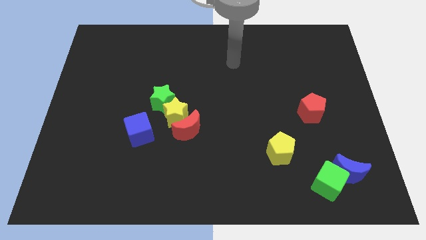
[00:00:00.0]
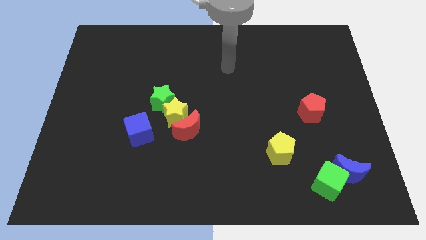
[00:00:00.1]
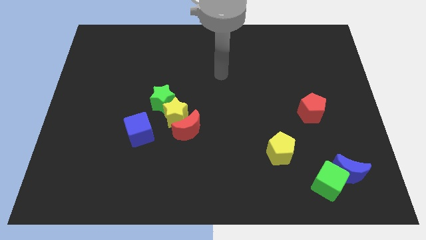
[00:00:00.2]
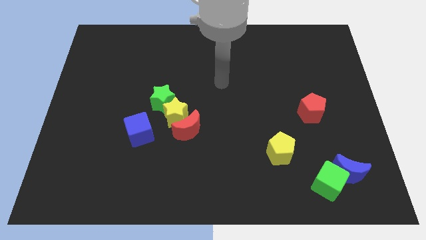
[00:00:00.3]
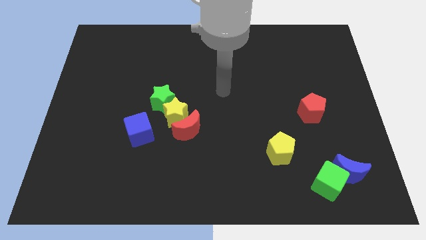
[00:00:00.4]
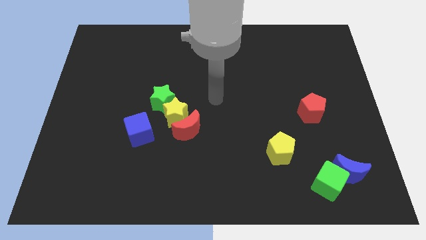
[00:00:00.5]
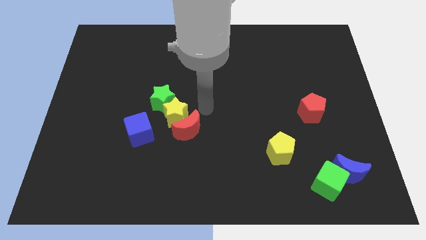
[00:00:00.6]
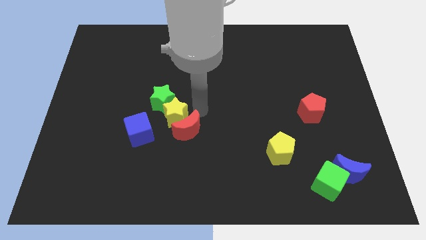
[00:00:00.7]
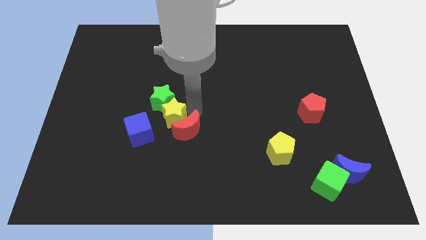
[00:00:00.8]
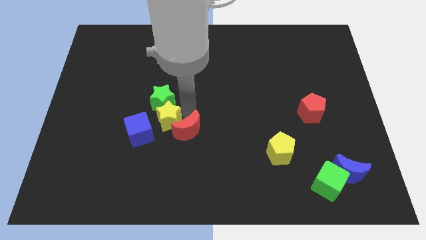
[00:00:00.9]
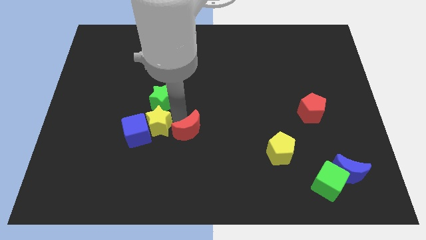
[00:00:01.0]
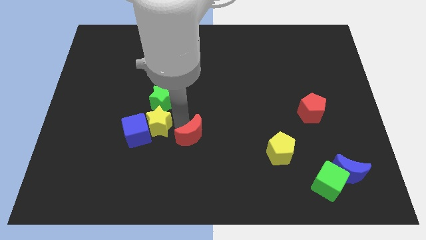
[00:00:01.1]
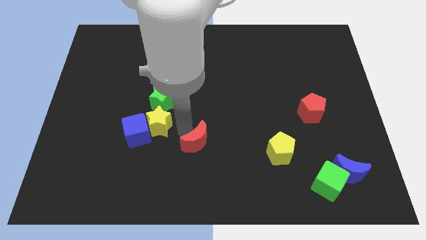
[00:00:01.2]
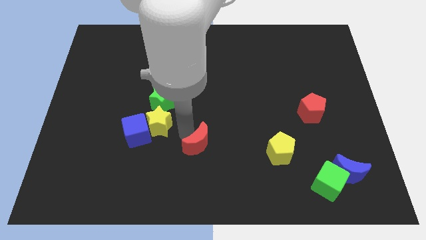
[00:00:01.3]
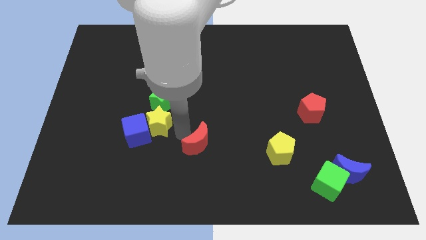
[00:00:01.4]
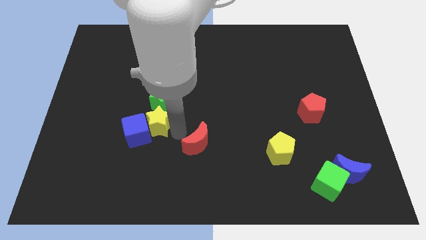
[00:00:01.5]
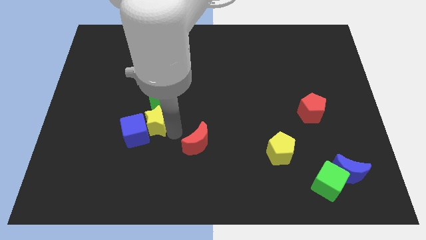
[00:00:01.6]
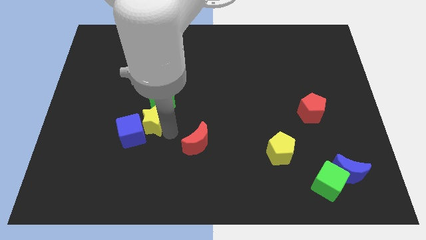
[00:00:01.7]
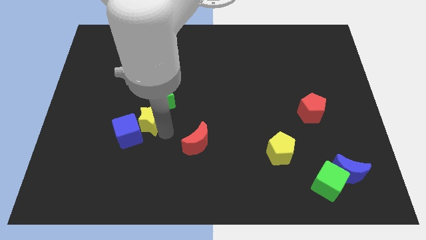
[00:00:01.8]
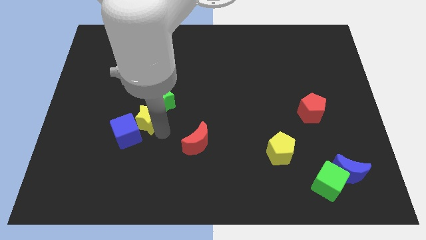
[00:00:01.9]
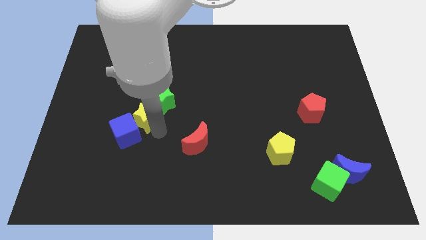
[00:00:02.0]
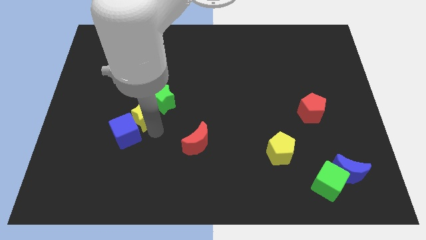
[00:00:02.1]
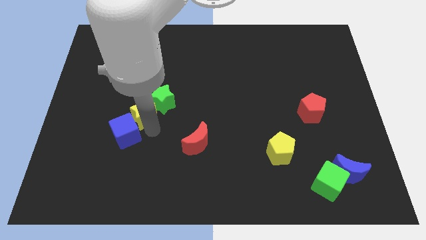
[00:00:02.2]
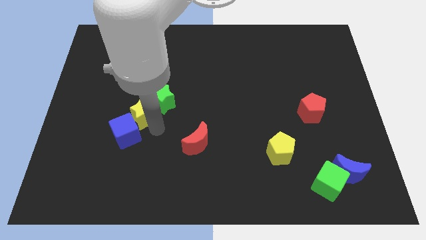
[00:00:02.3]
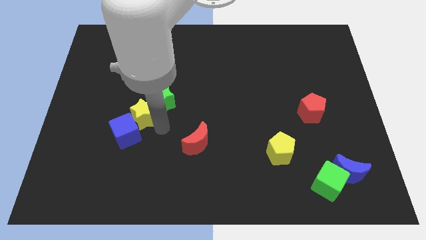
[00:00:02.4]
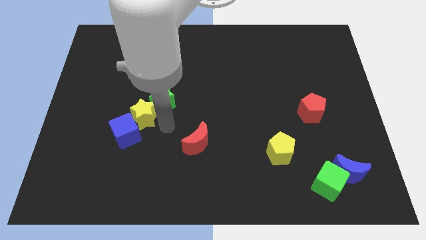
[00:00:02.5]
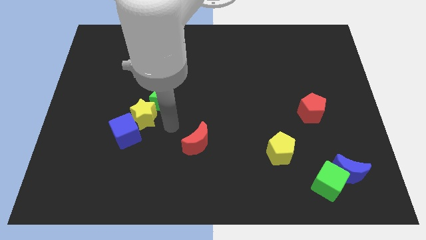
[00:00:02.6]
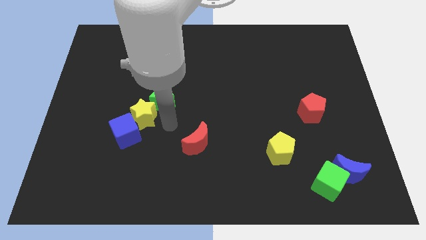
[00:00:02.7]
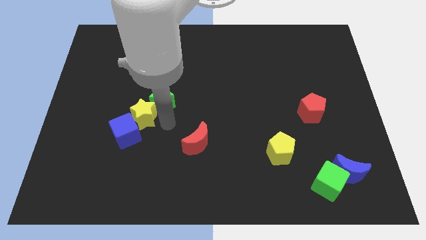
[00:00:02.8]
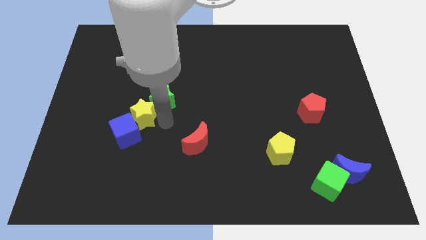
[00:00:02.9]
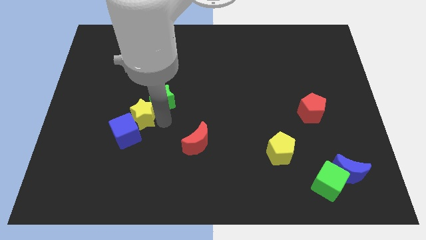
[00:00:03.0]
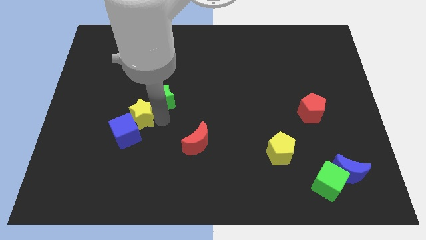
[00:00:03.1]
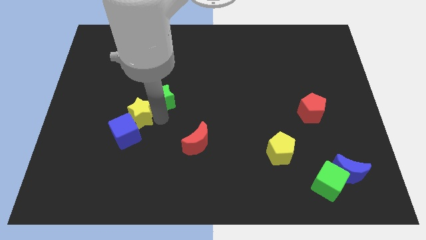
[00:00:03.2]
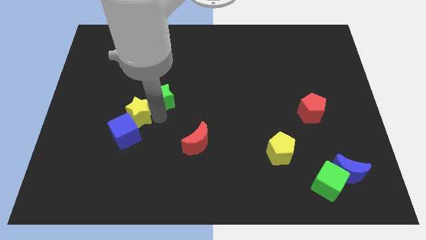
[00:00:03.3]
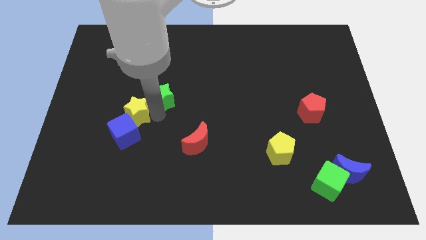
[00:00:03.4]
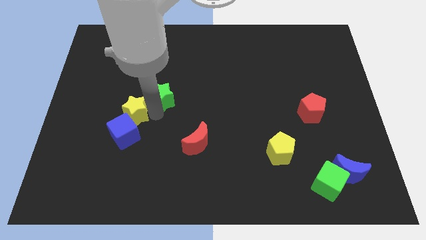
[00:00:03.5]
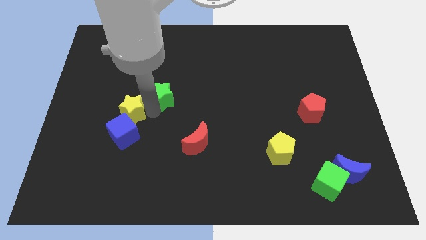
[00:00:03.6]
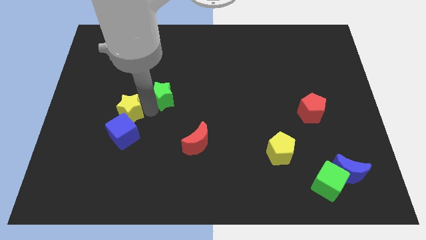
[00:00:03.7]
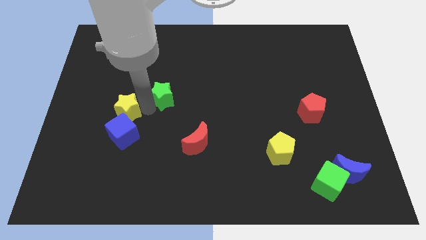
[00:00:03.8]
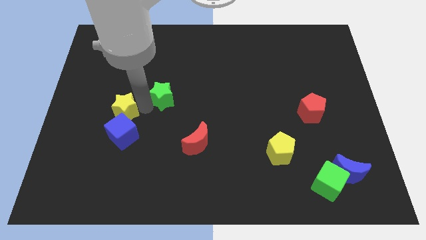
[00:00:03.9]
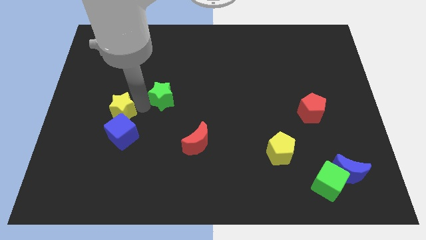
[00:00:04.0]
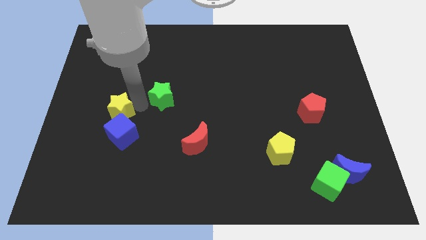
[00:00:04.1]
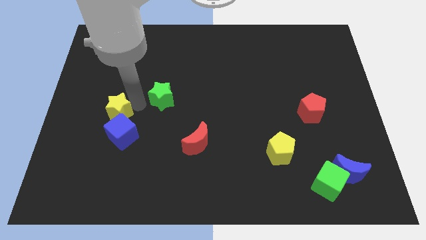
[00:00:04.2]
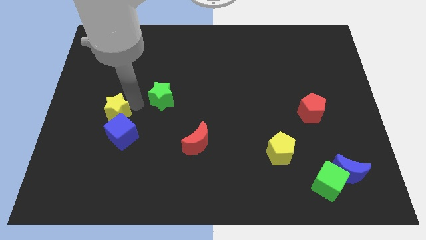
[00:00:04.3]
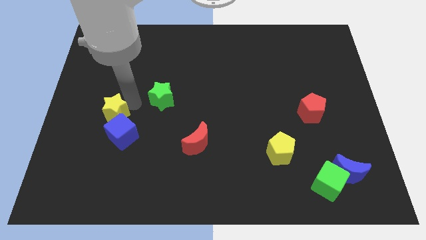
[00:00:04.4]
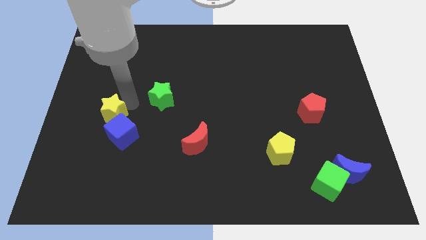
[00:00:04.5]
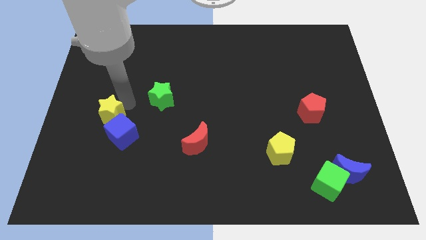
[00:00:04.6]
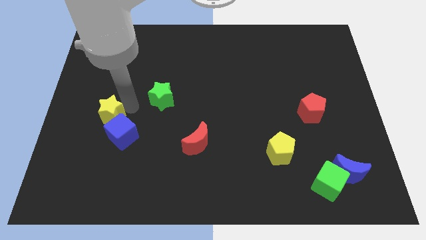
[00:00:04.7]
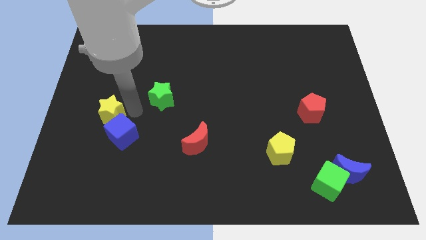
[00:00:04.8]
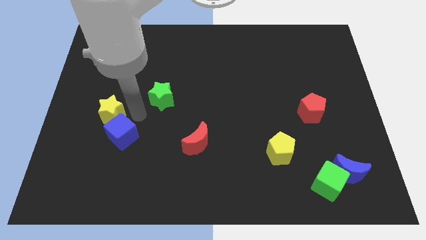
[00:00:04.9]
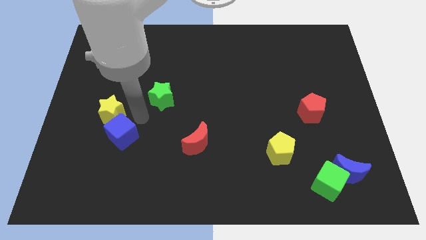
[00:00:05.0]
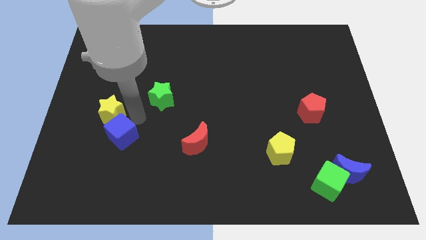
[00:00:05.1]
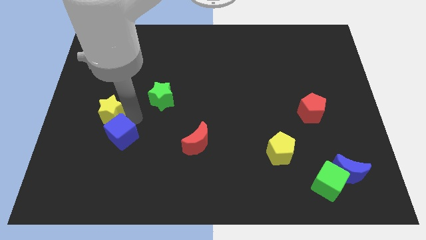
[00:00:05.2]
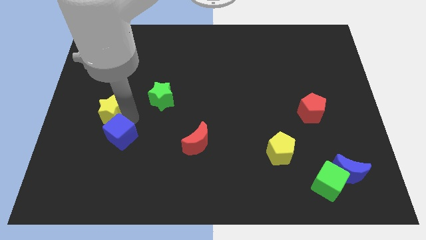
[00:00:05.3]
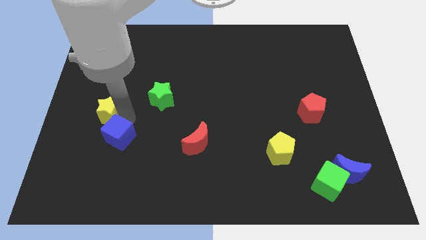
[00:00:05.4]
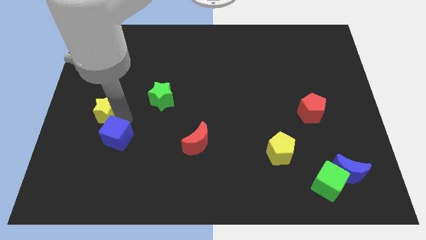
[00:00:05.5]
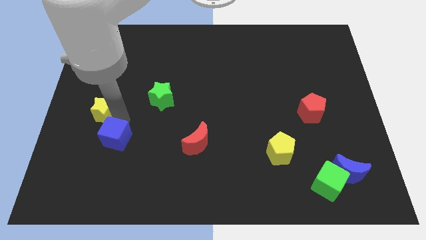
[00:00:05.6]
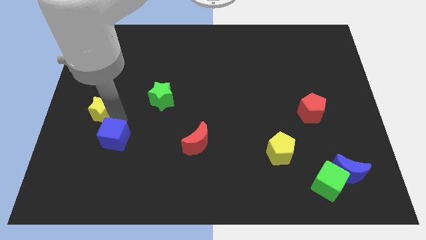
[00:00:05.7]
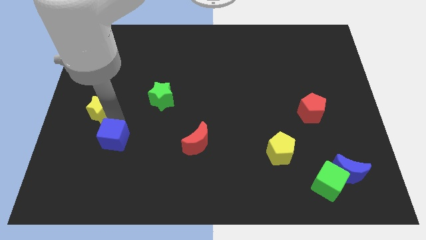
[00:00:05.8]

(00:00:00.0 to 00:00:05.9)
move the yellow star to the left side

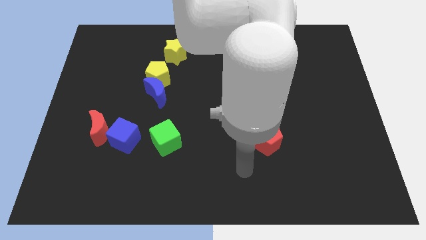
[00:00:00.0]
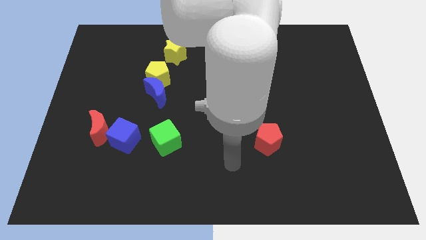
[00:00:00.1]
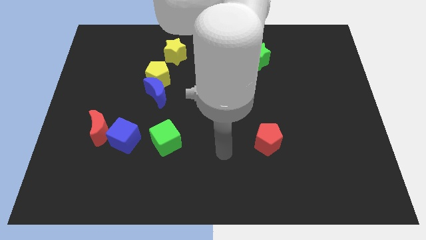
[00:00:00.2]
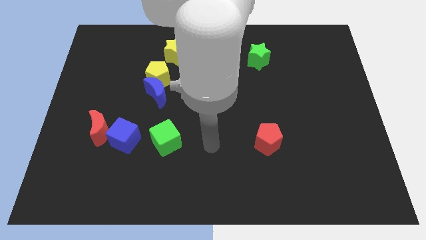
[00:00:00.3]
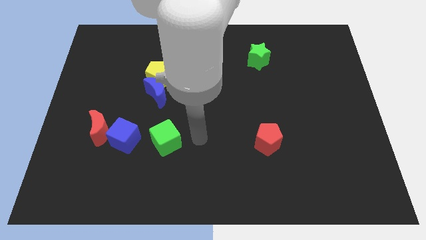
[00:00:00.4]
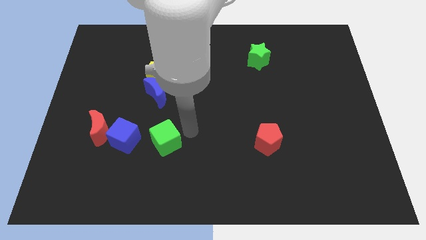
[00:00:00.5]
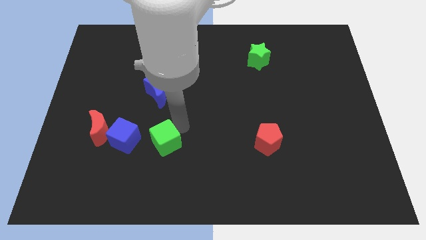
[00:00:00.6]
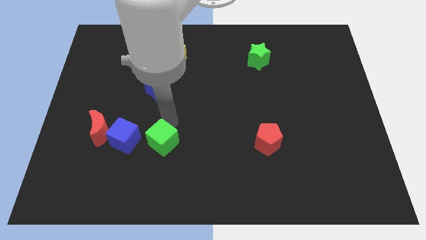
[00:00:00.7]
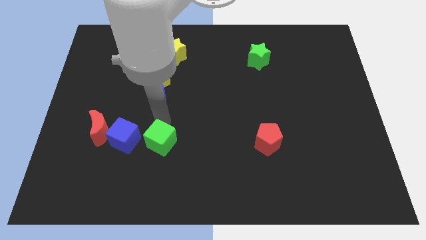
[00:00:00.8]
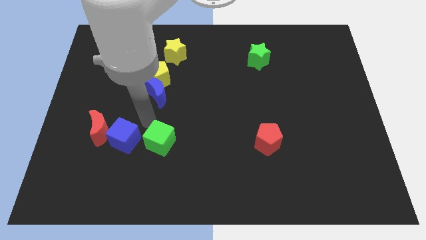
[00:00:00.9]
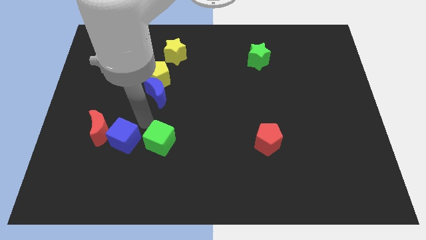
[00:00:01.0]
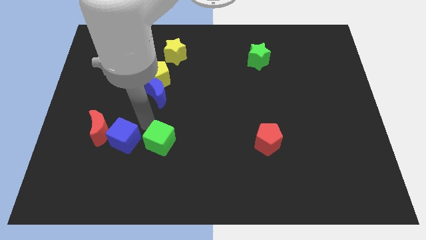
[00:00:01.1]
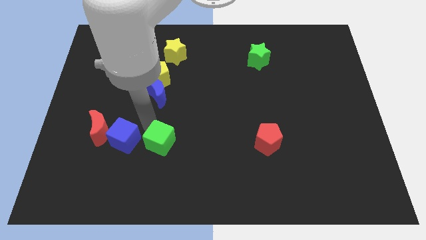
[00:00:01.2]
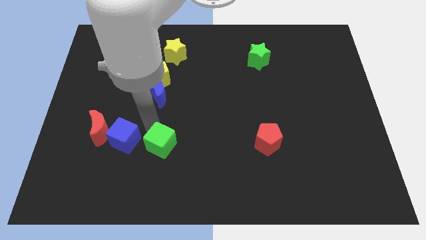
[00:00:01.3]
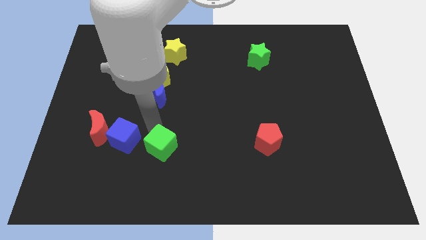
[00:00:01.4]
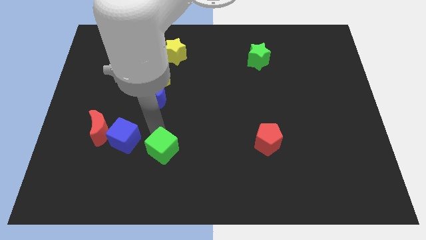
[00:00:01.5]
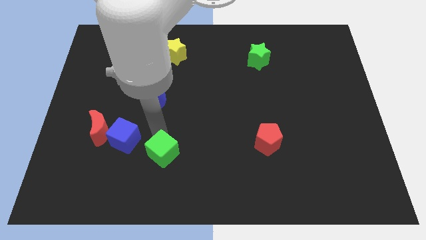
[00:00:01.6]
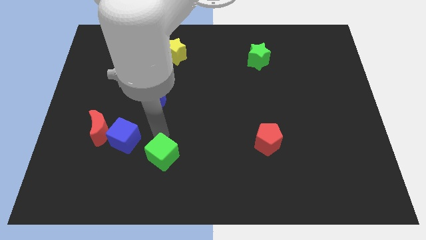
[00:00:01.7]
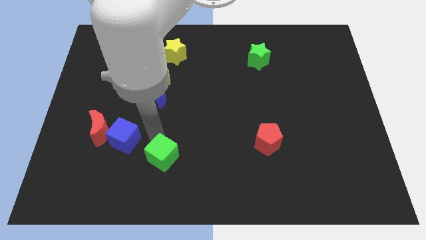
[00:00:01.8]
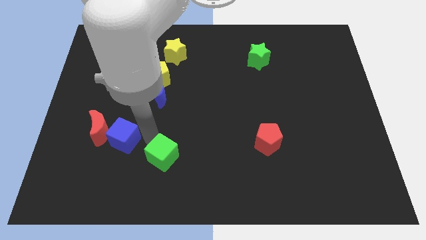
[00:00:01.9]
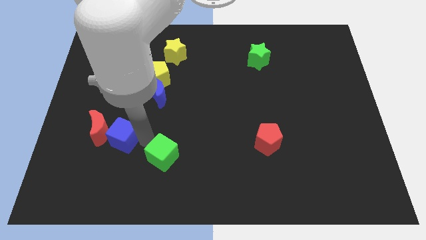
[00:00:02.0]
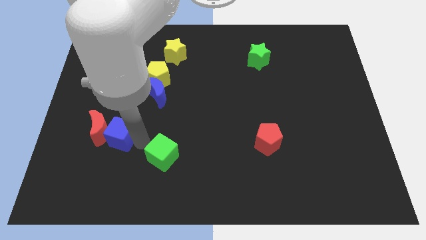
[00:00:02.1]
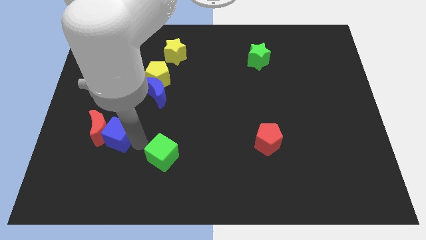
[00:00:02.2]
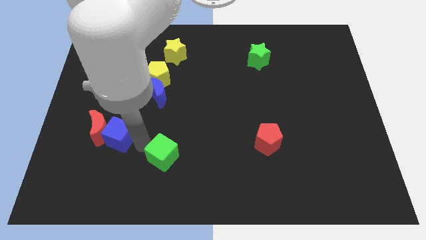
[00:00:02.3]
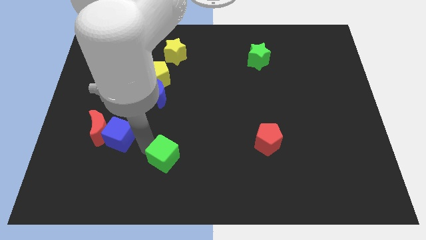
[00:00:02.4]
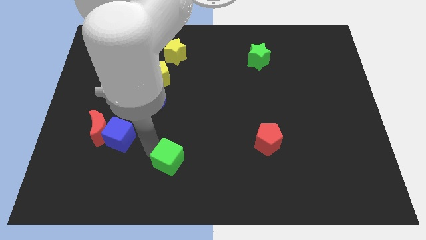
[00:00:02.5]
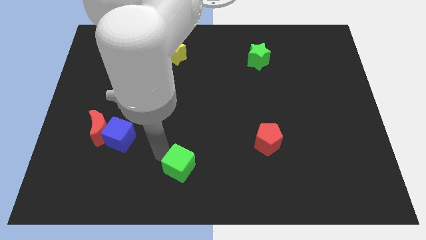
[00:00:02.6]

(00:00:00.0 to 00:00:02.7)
push the green cube to the bottom side
